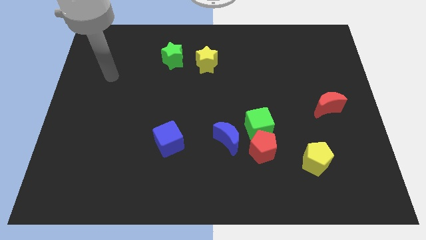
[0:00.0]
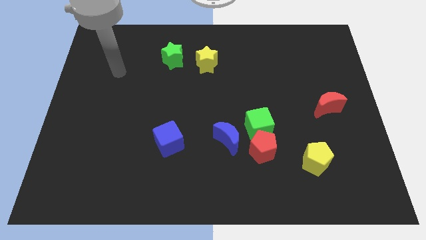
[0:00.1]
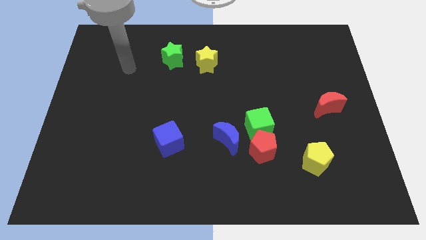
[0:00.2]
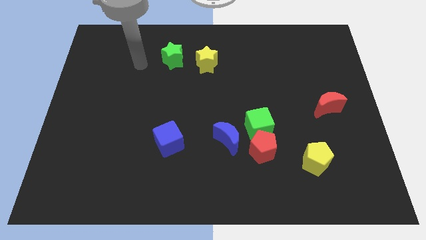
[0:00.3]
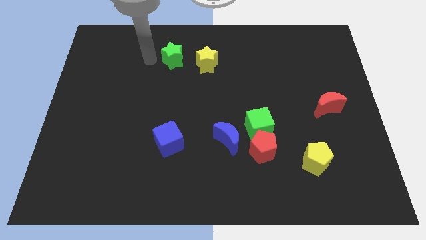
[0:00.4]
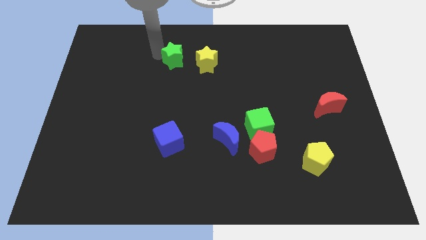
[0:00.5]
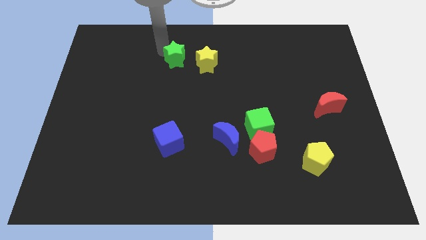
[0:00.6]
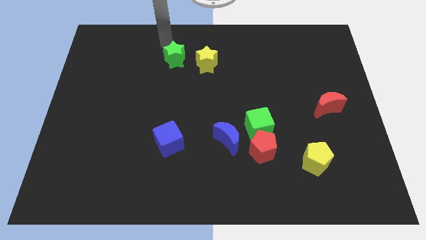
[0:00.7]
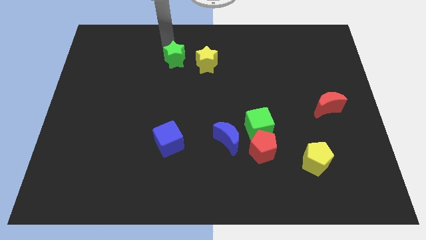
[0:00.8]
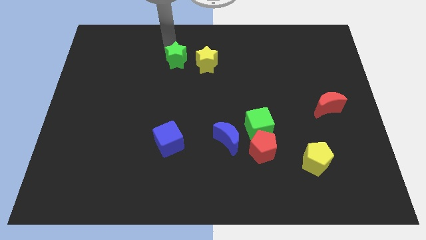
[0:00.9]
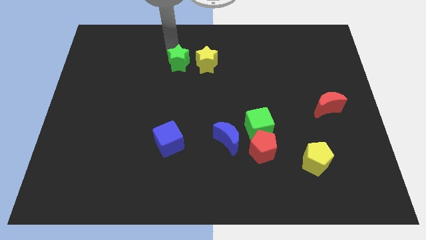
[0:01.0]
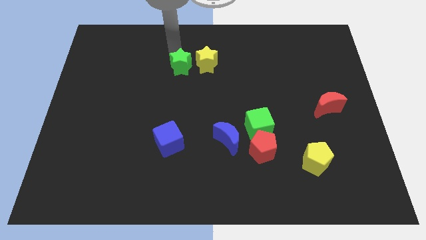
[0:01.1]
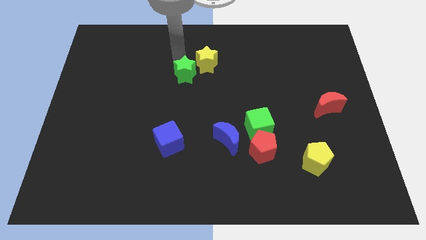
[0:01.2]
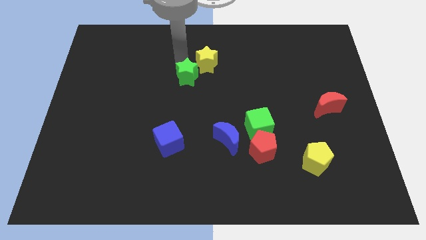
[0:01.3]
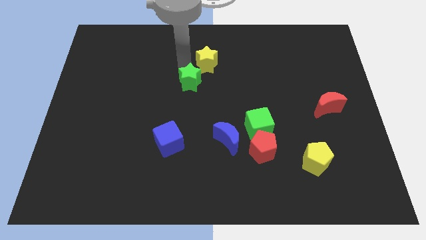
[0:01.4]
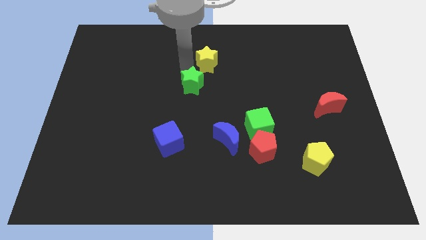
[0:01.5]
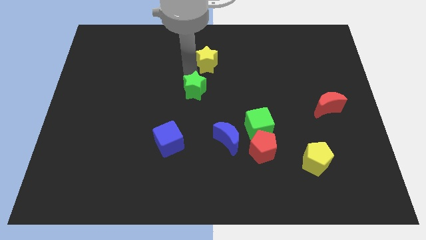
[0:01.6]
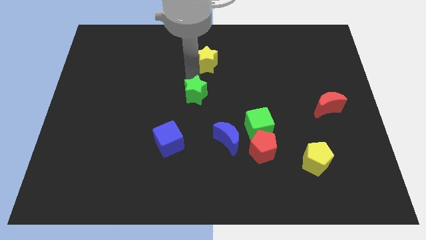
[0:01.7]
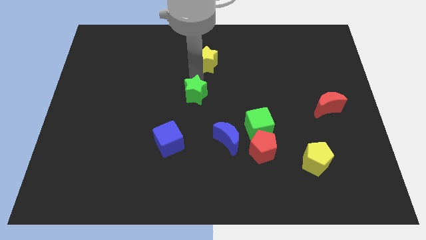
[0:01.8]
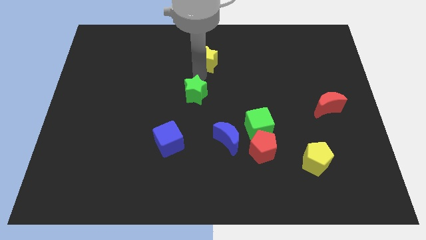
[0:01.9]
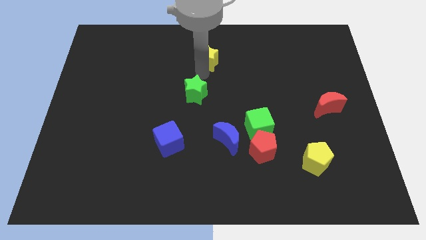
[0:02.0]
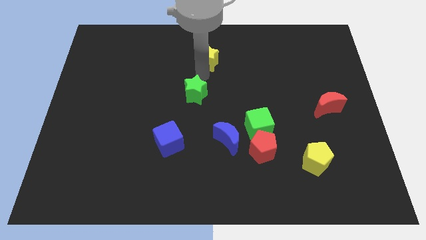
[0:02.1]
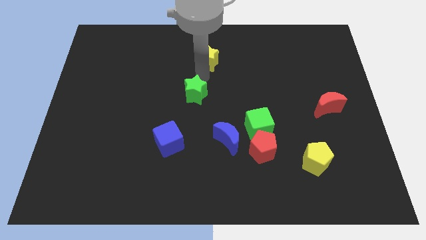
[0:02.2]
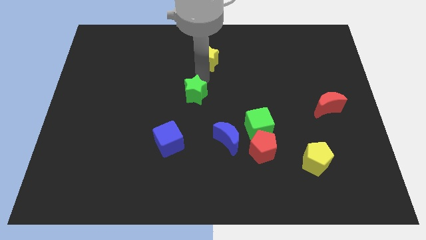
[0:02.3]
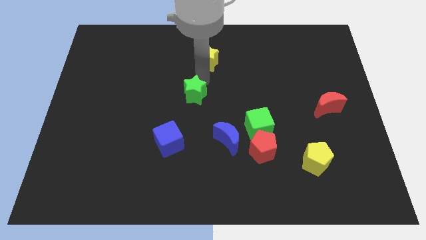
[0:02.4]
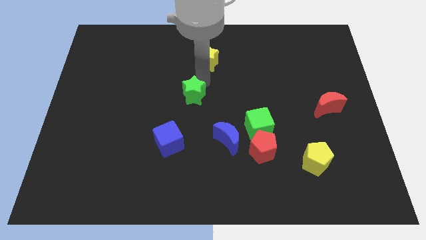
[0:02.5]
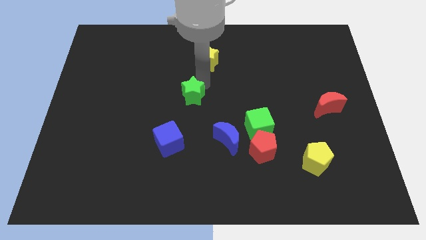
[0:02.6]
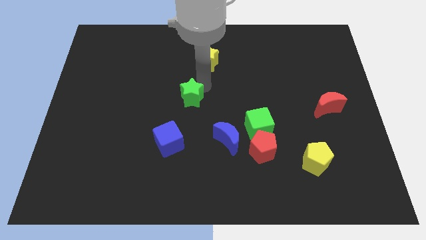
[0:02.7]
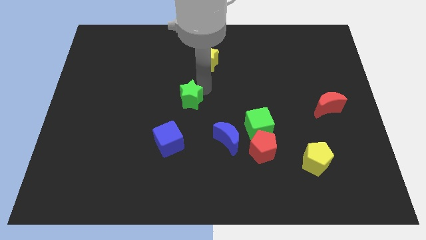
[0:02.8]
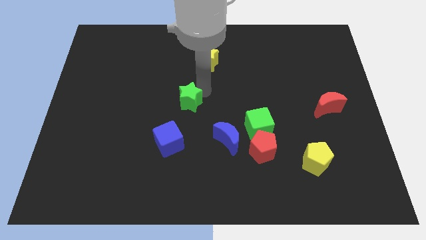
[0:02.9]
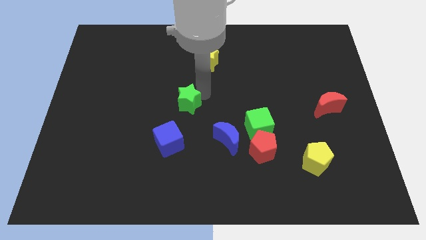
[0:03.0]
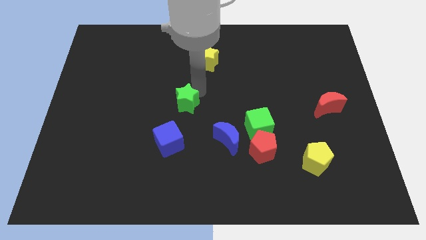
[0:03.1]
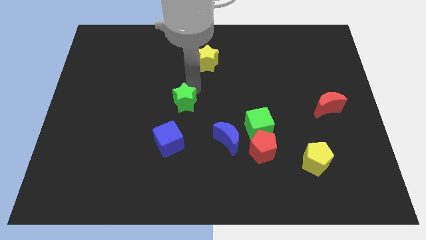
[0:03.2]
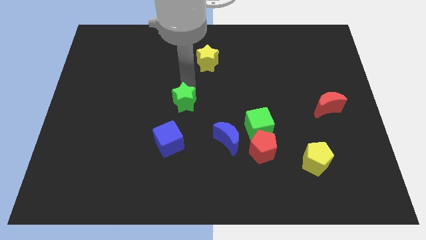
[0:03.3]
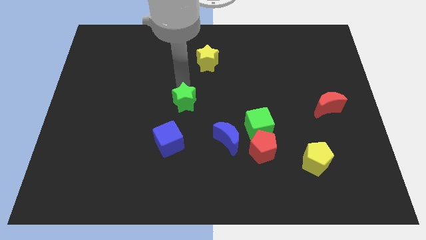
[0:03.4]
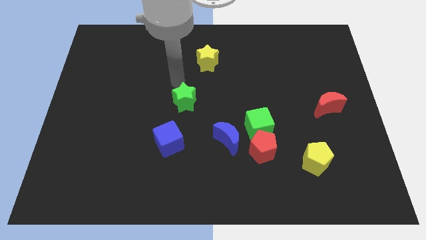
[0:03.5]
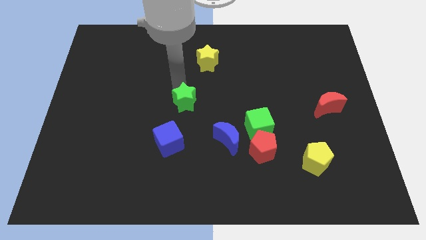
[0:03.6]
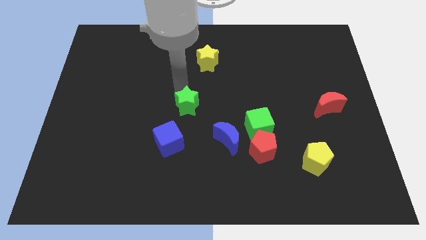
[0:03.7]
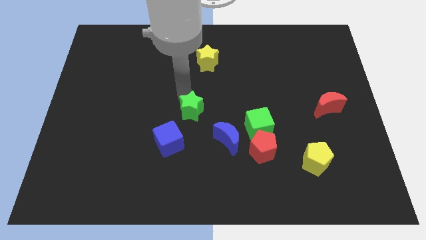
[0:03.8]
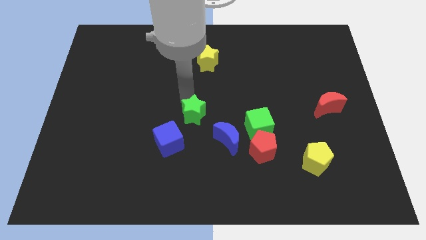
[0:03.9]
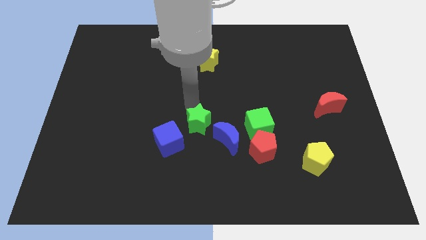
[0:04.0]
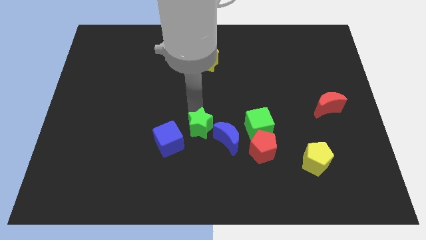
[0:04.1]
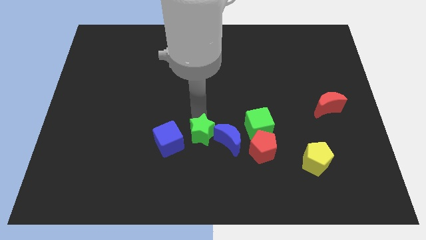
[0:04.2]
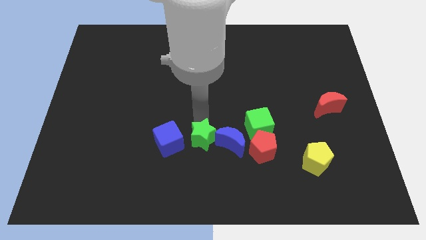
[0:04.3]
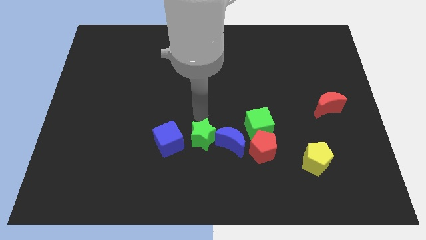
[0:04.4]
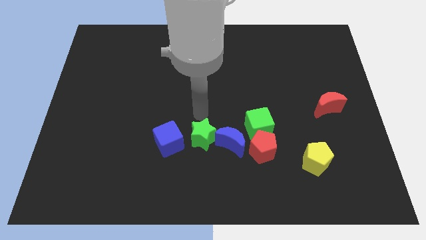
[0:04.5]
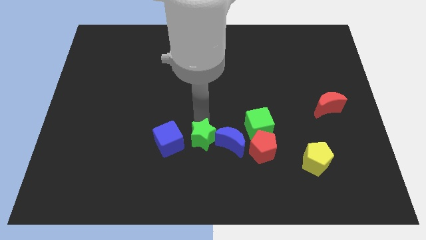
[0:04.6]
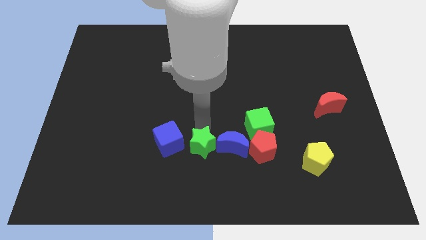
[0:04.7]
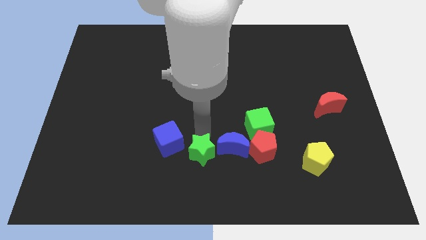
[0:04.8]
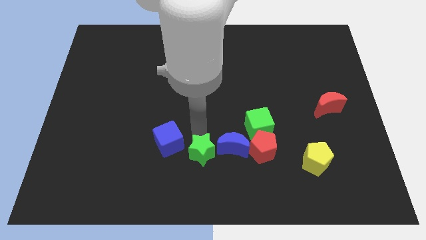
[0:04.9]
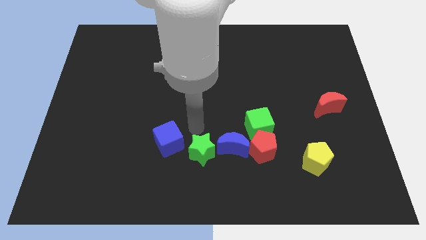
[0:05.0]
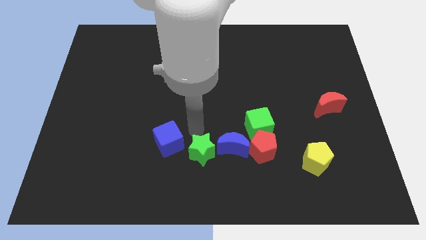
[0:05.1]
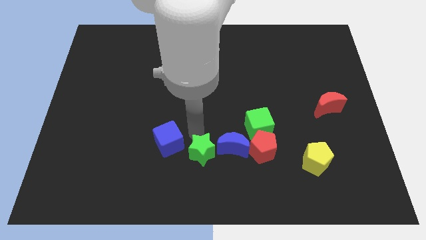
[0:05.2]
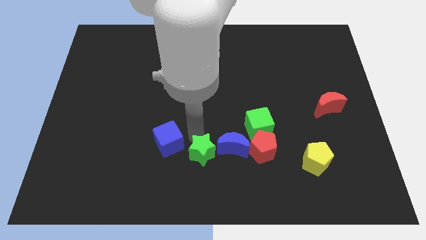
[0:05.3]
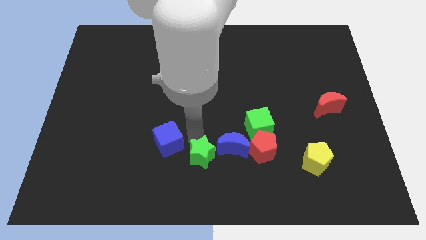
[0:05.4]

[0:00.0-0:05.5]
slide the green star to the bottom

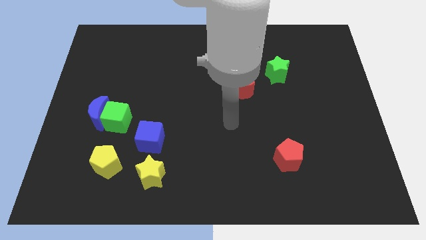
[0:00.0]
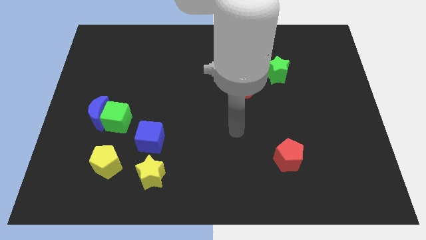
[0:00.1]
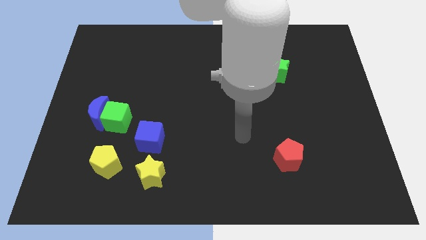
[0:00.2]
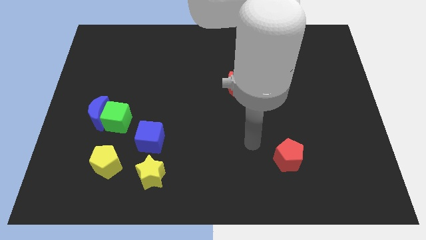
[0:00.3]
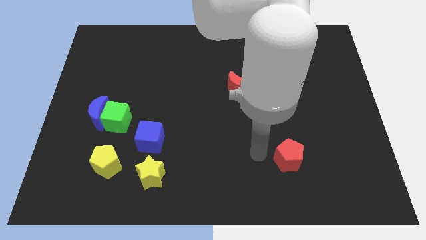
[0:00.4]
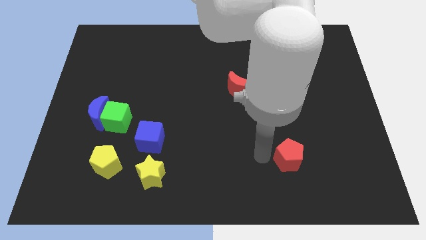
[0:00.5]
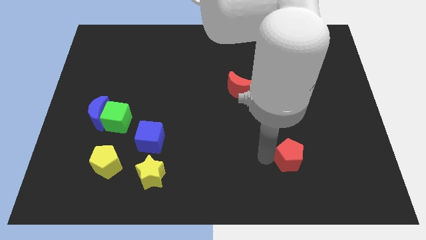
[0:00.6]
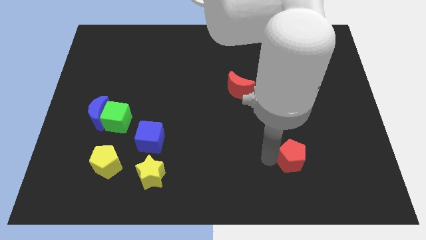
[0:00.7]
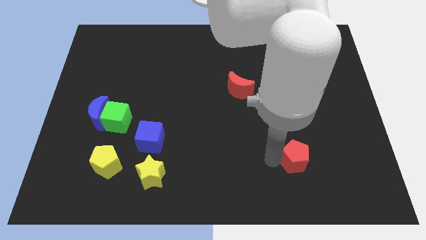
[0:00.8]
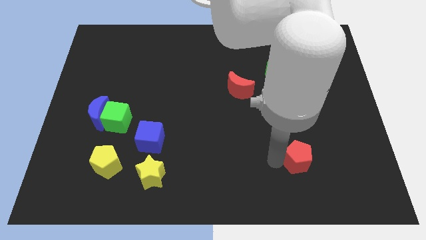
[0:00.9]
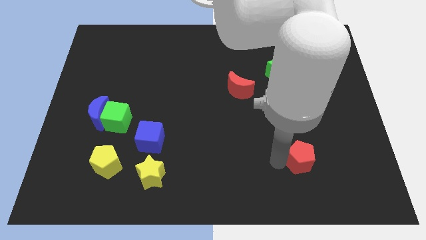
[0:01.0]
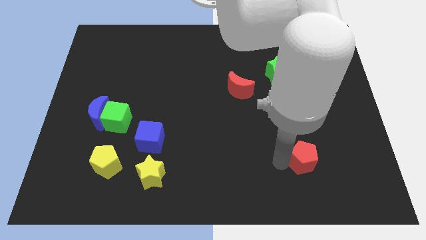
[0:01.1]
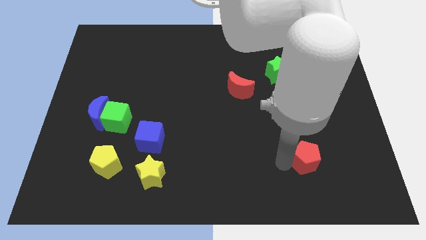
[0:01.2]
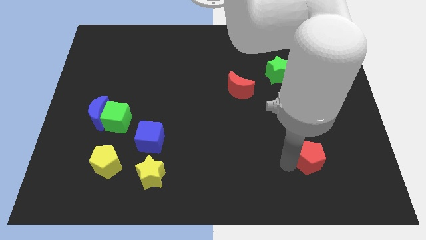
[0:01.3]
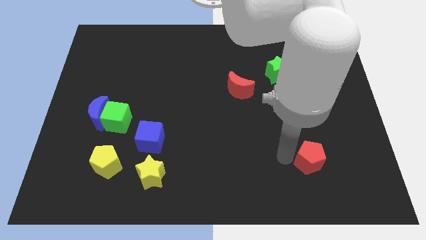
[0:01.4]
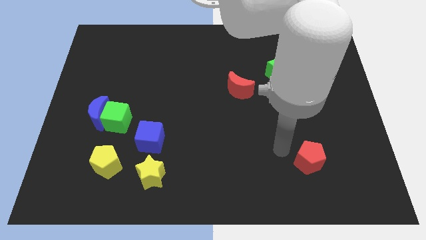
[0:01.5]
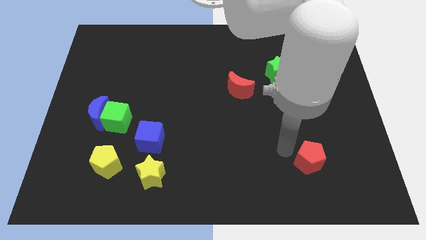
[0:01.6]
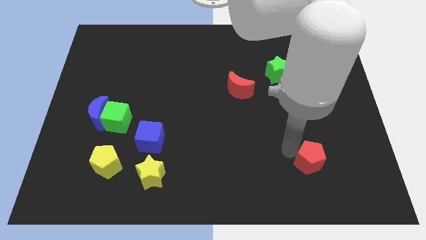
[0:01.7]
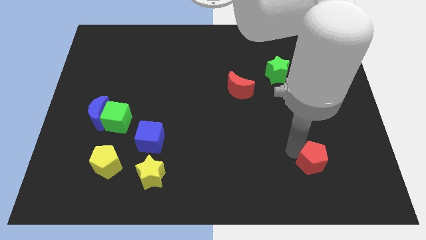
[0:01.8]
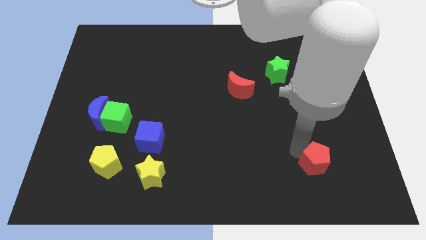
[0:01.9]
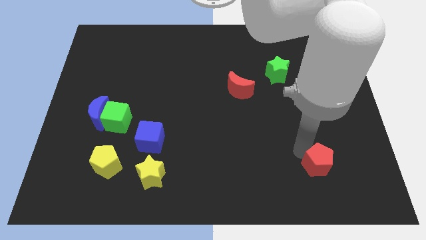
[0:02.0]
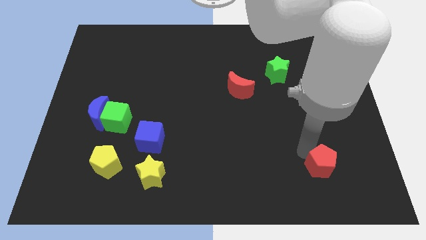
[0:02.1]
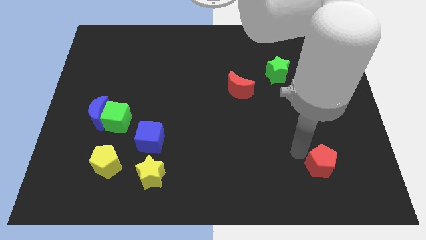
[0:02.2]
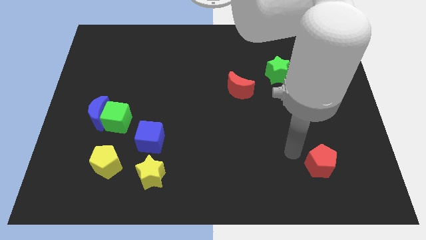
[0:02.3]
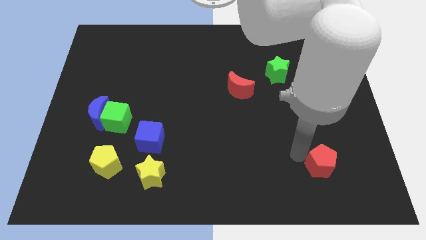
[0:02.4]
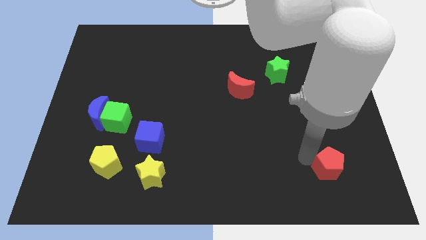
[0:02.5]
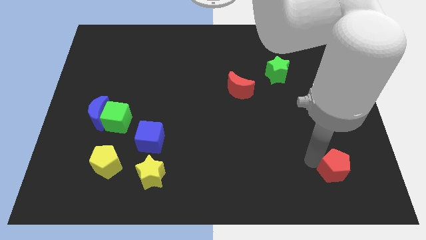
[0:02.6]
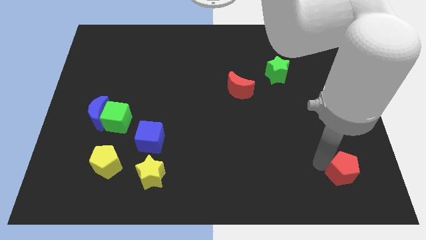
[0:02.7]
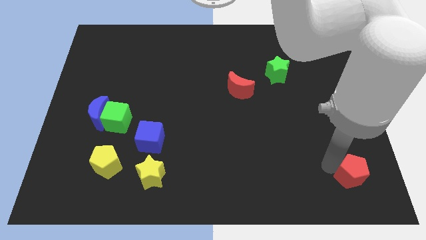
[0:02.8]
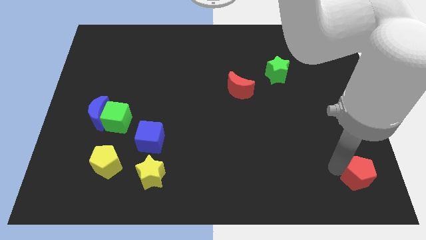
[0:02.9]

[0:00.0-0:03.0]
move the red pentagon to the bottom right corner
